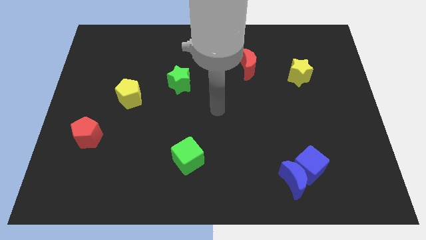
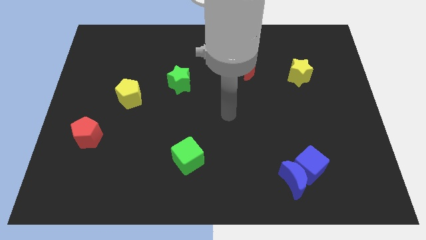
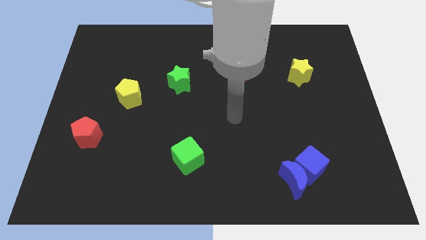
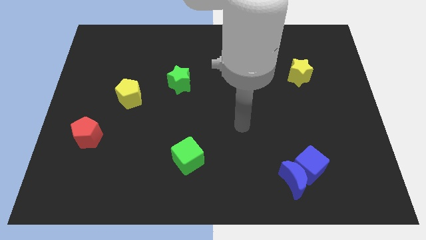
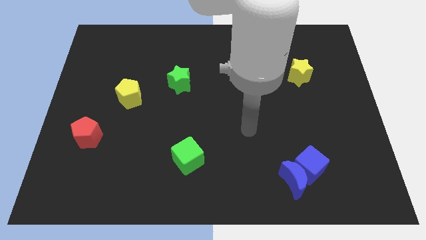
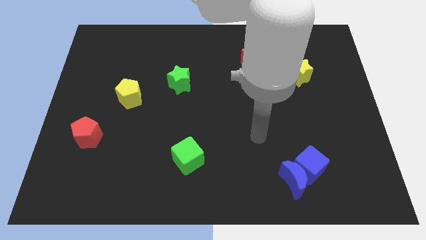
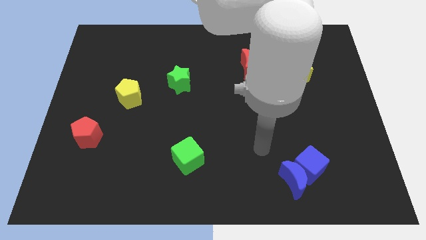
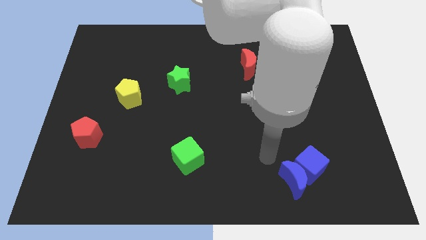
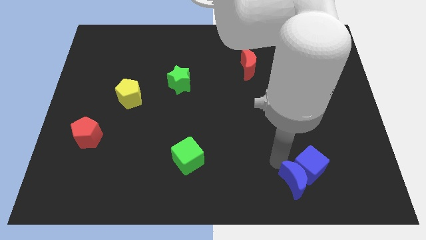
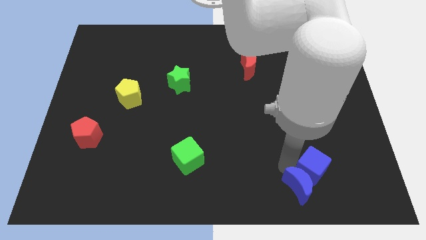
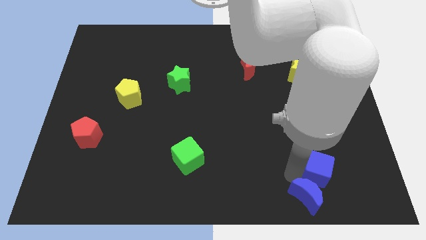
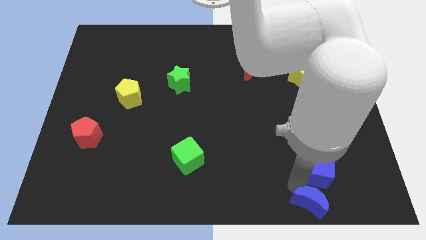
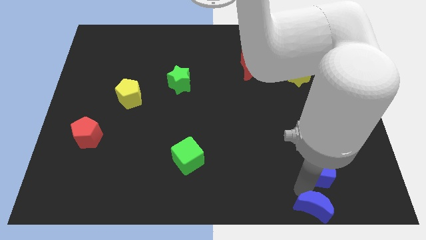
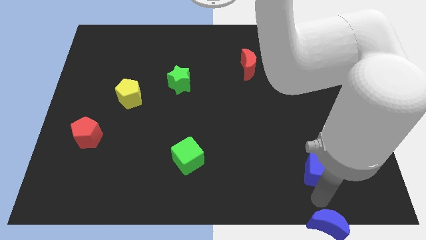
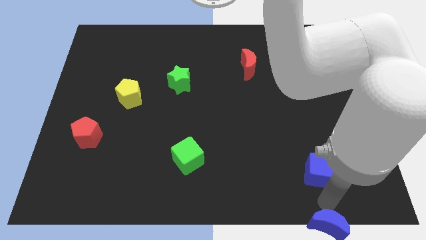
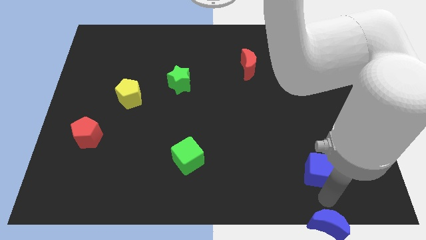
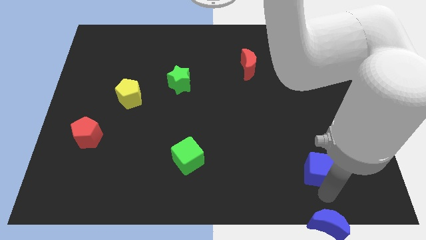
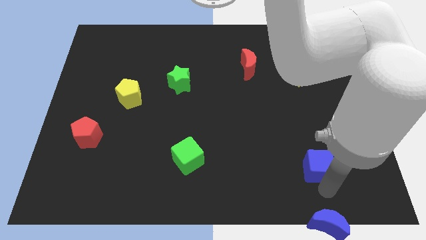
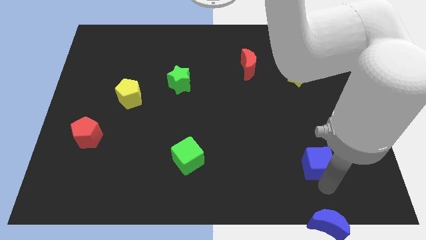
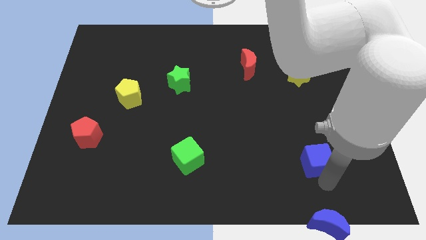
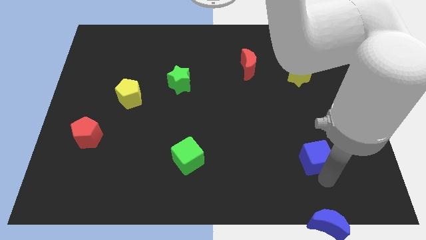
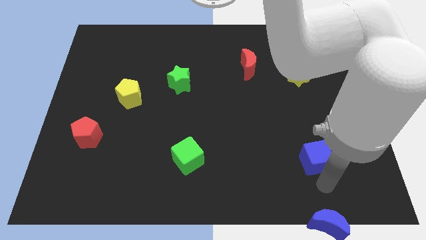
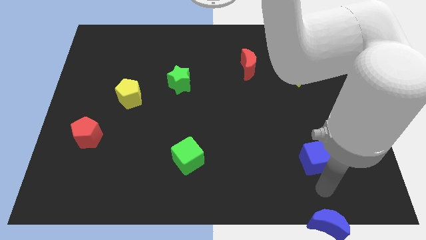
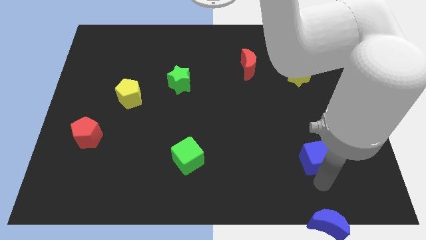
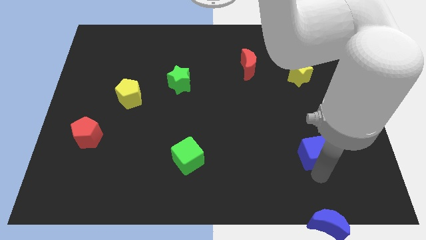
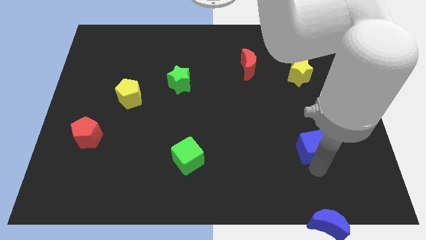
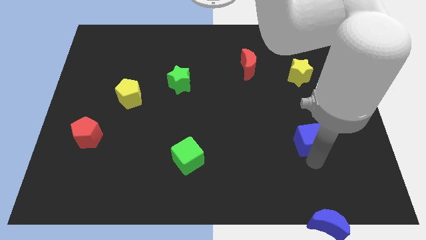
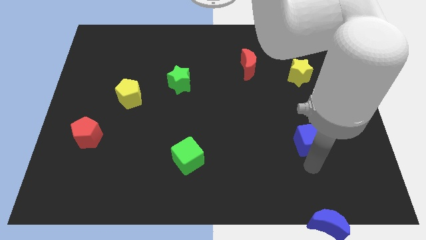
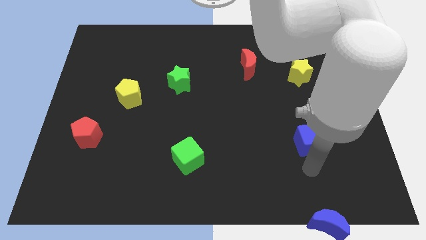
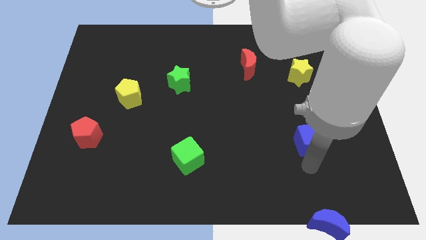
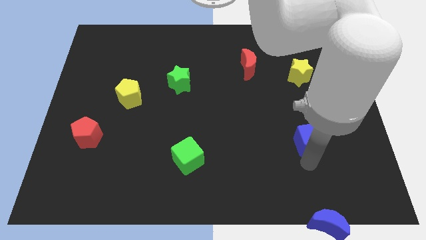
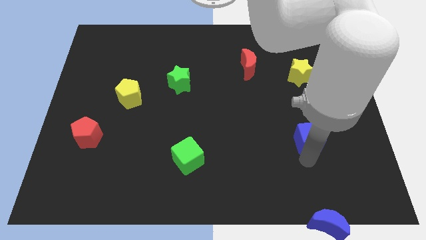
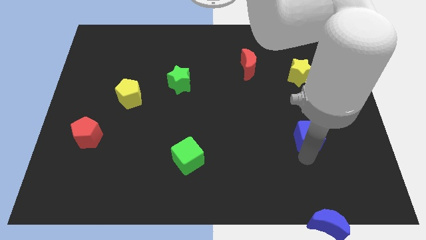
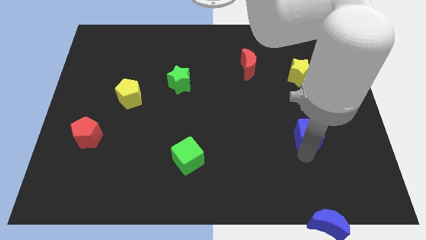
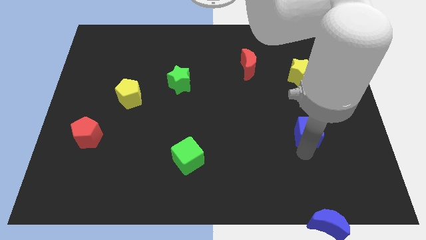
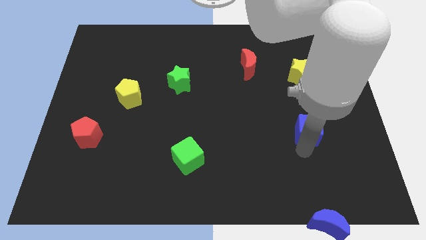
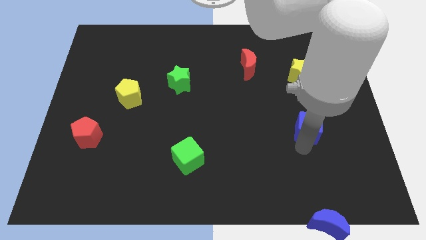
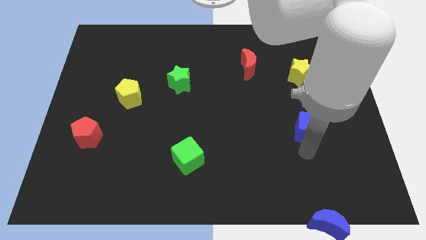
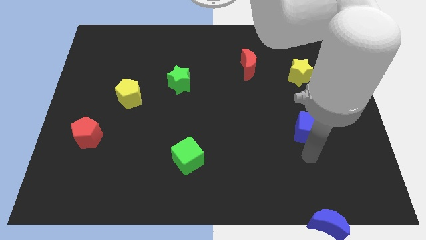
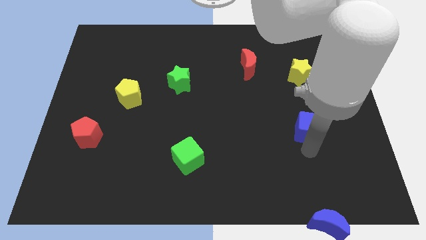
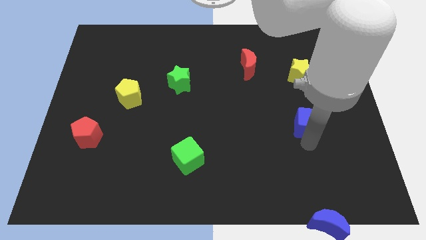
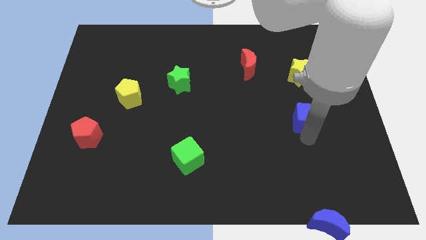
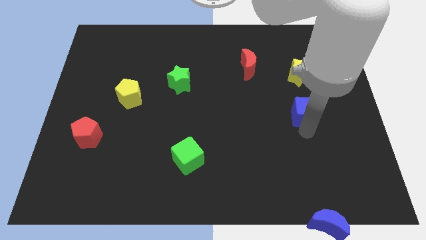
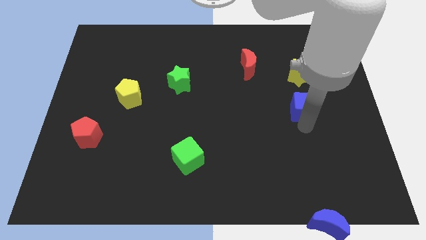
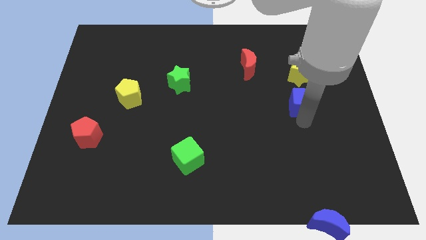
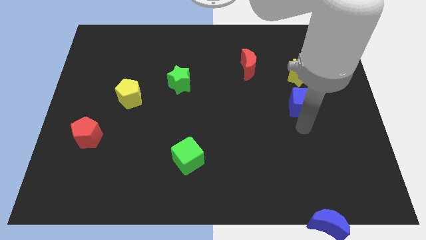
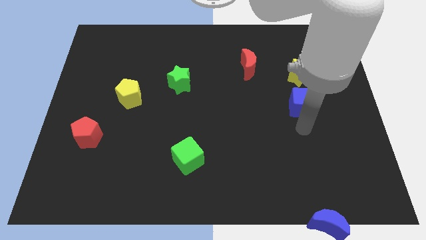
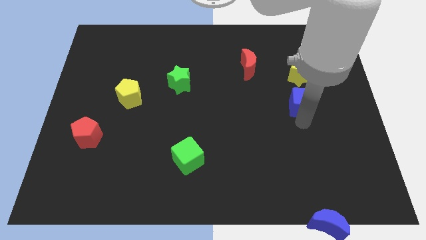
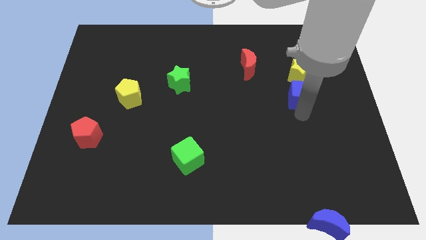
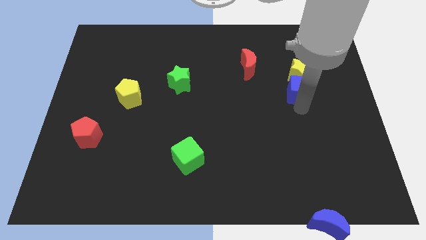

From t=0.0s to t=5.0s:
slide the blue cube to the yellow star

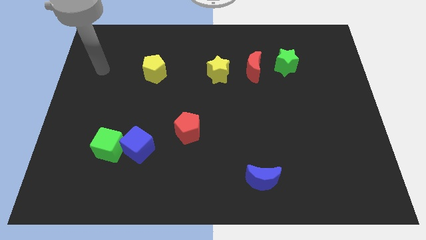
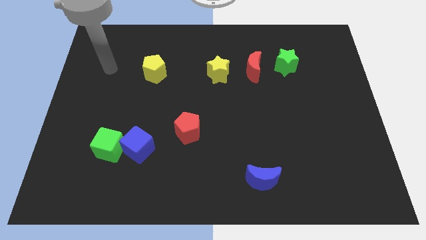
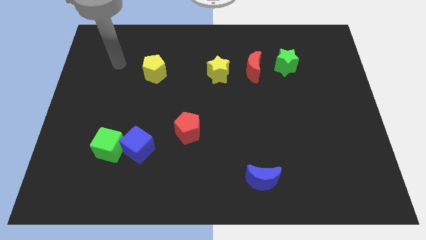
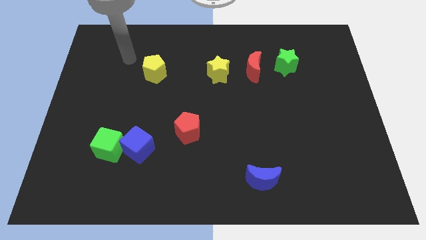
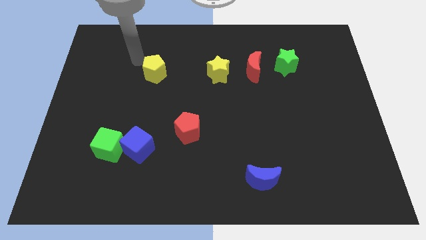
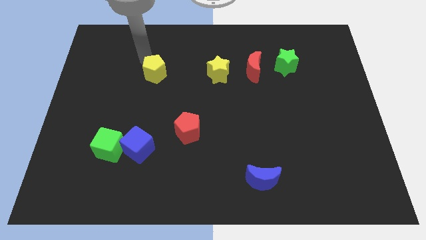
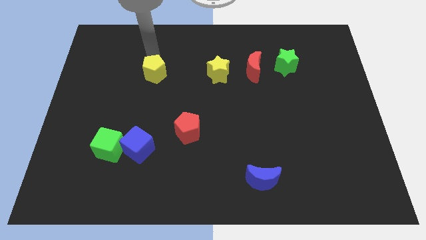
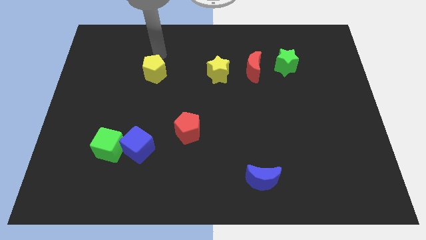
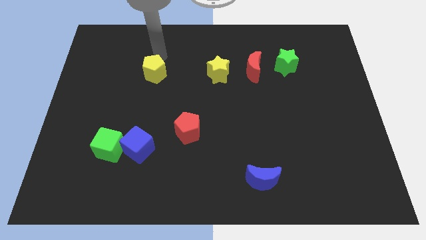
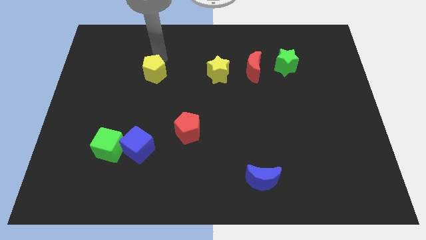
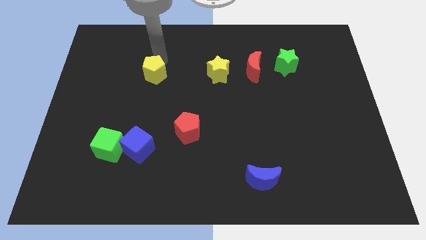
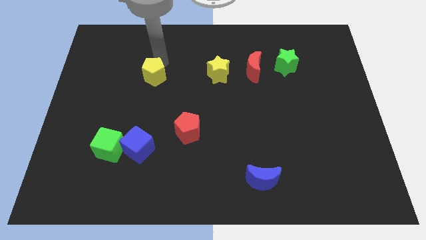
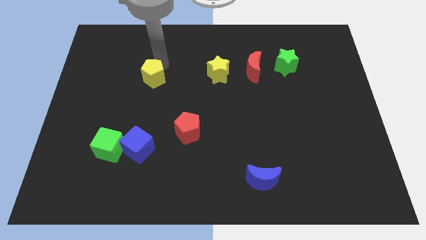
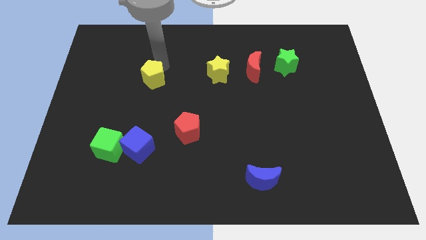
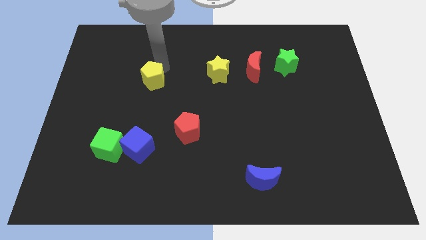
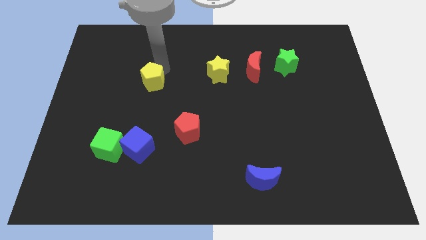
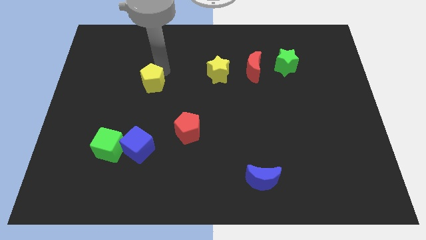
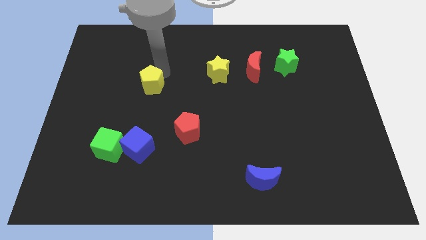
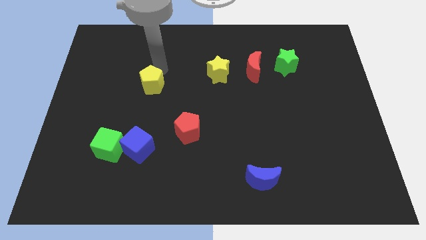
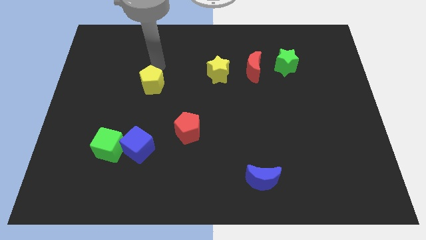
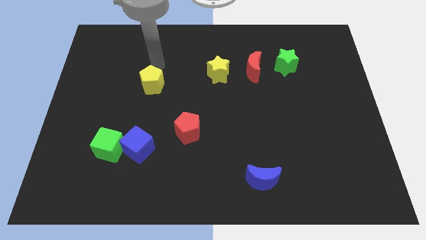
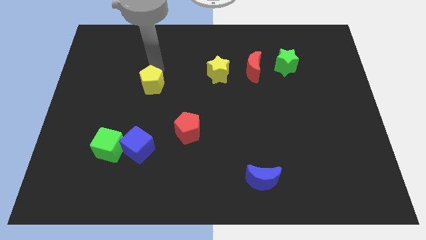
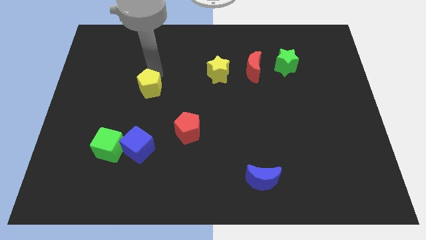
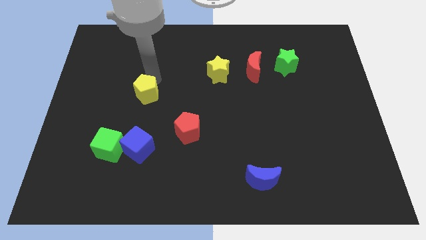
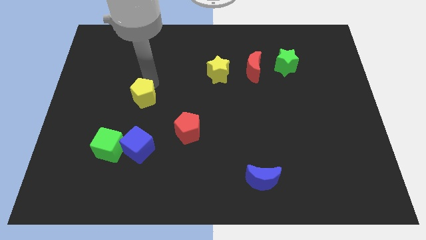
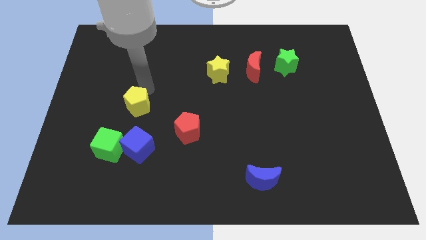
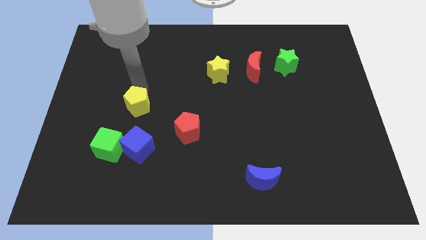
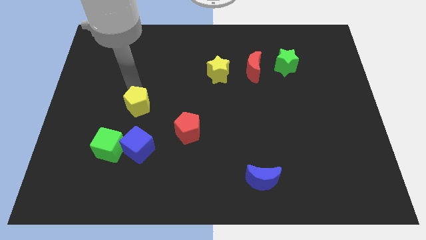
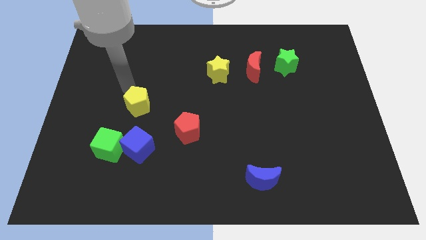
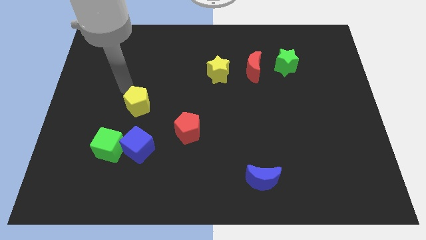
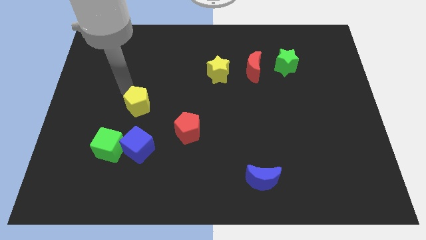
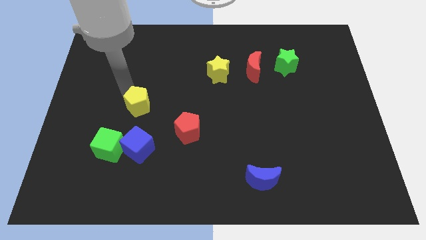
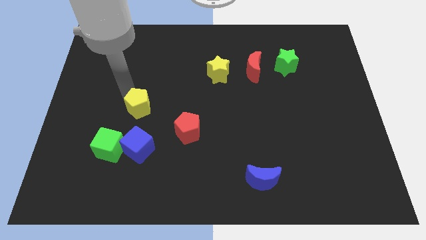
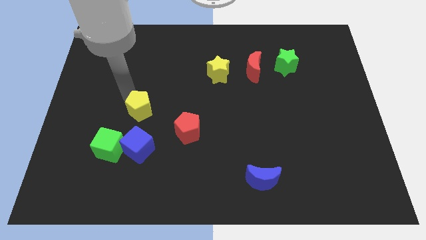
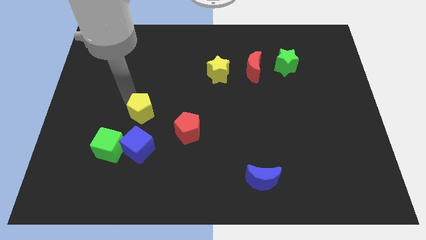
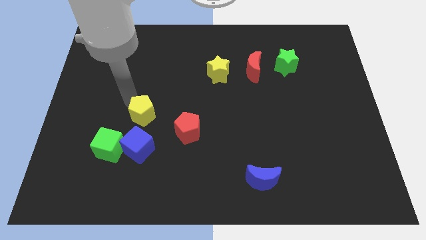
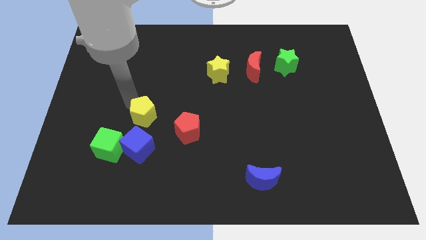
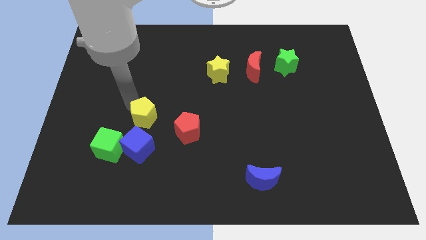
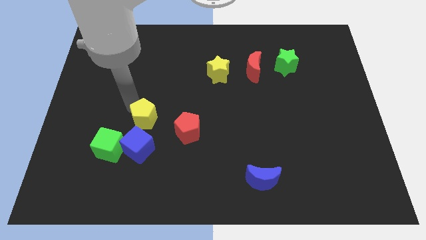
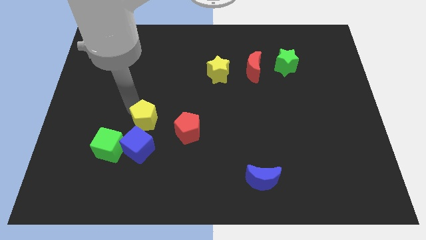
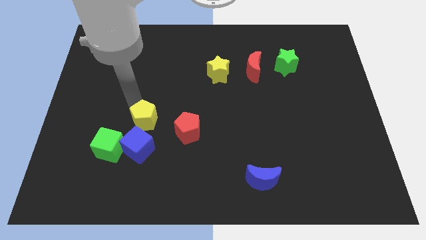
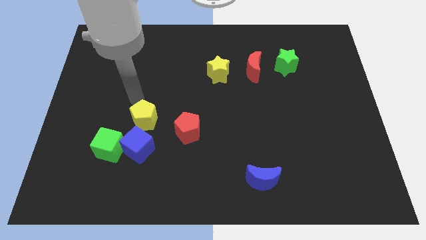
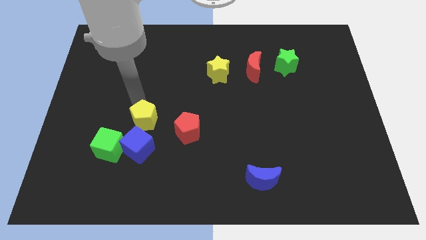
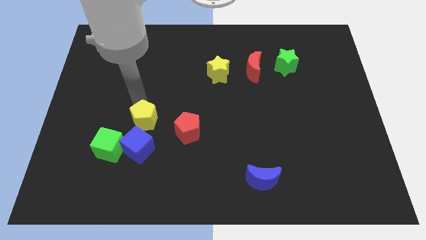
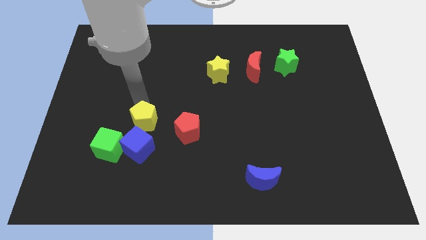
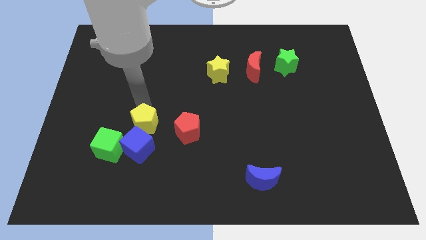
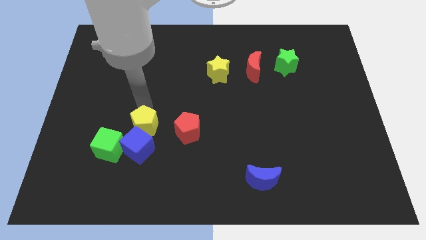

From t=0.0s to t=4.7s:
slide the yellow pentagon close to the blue cube
